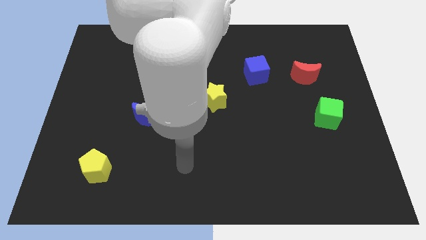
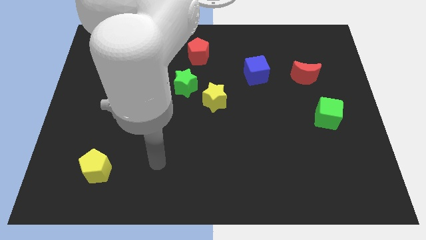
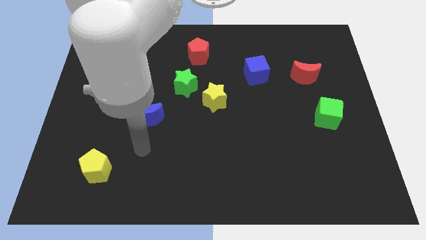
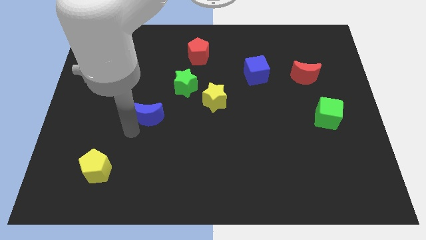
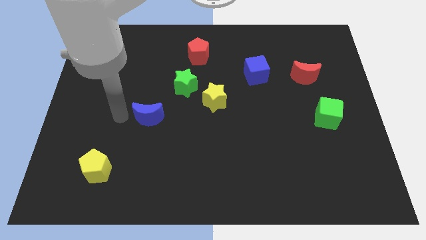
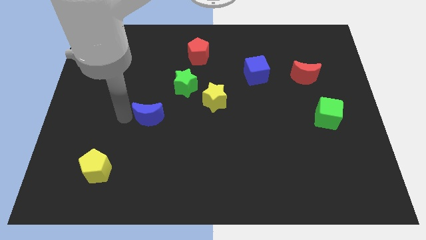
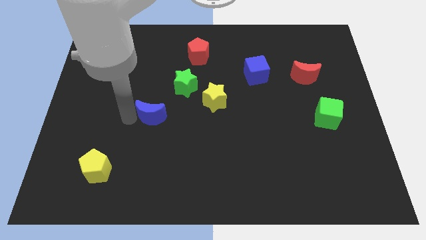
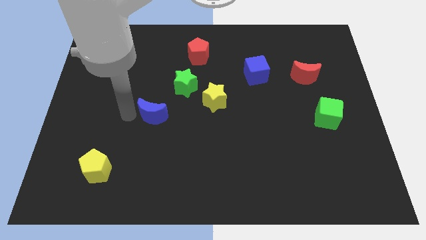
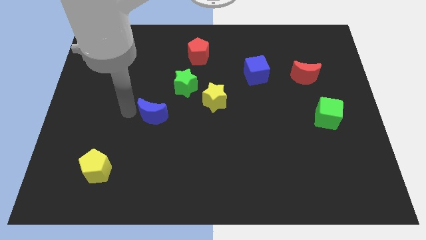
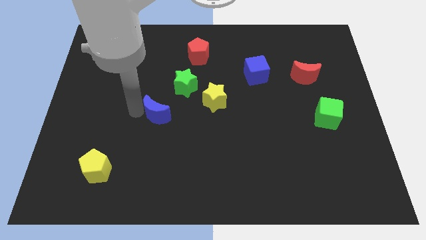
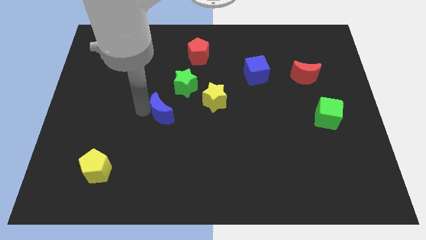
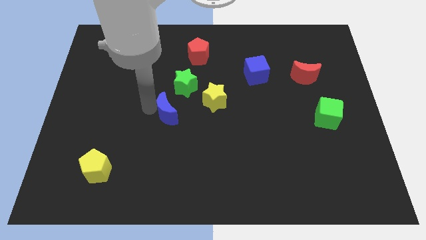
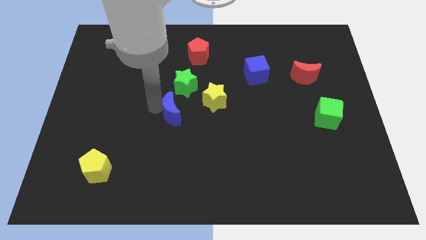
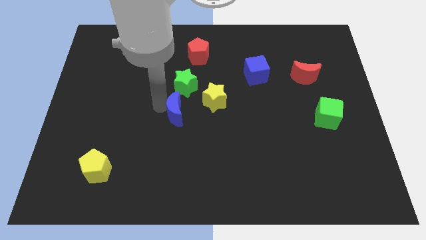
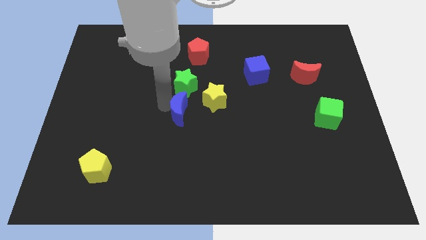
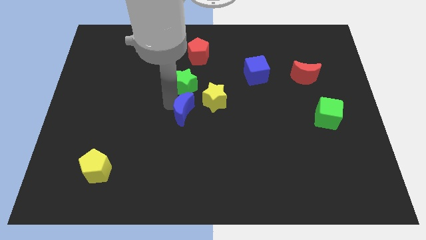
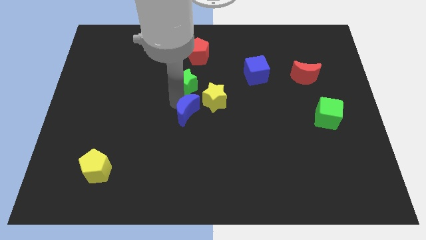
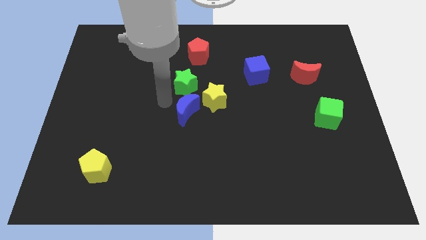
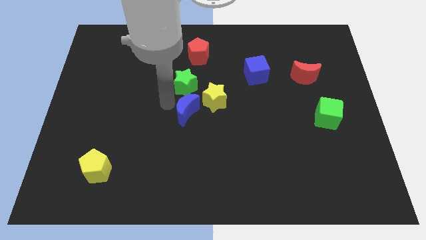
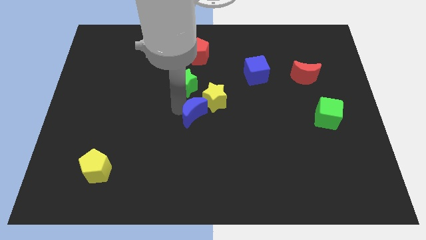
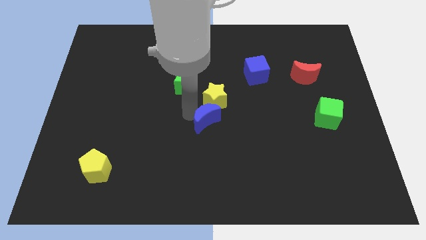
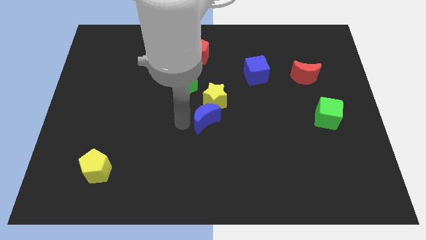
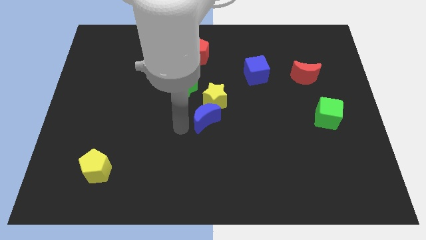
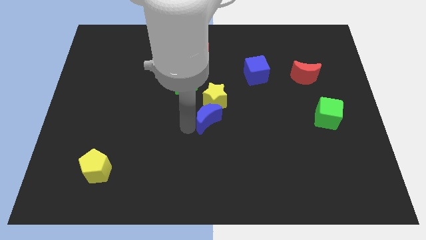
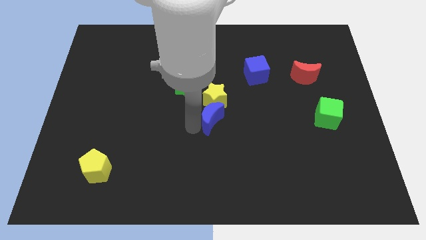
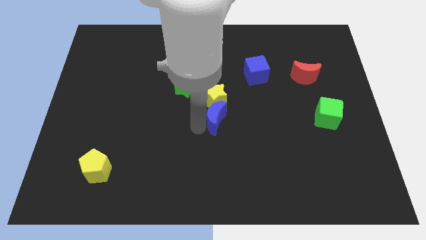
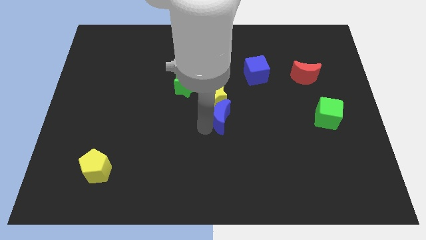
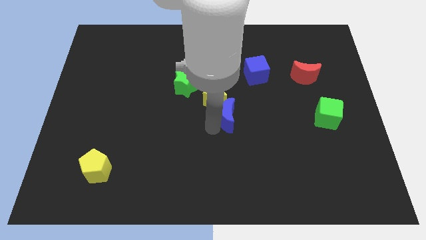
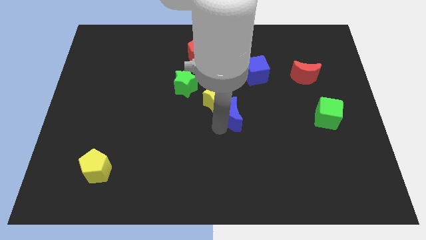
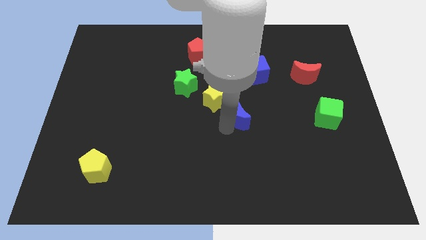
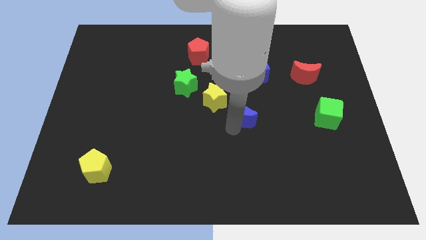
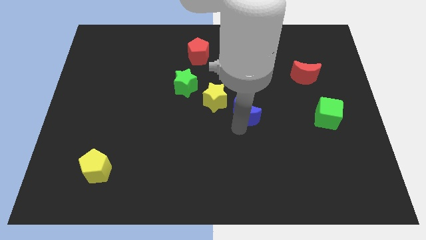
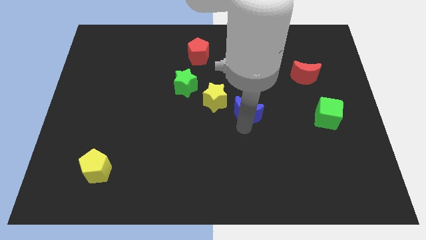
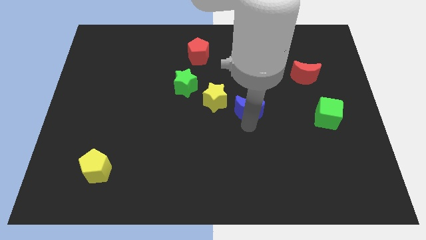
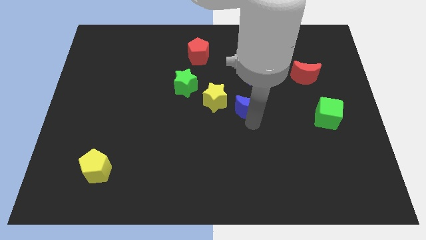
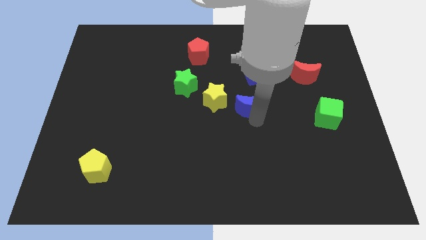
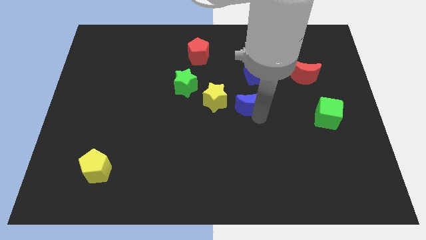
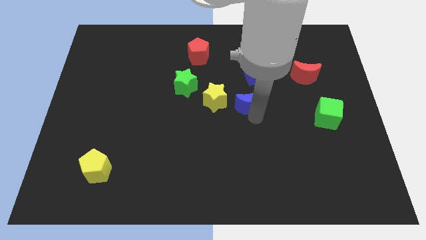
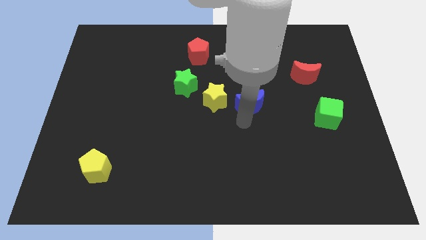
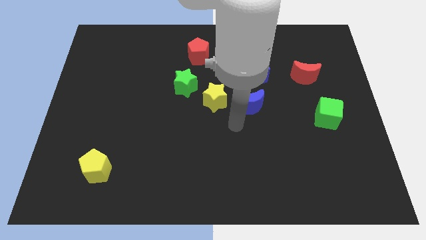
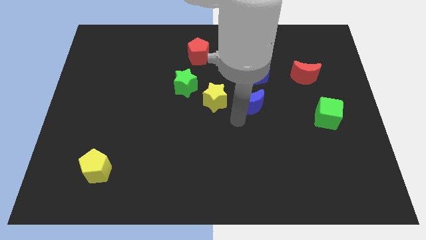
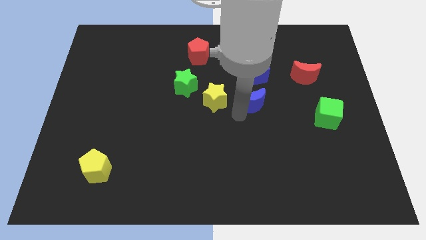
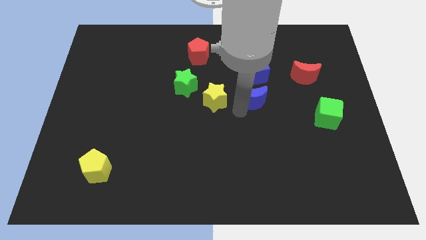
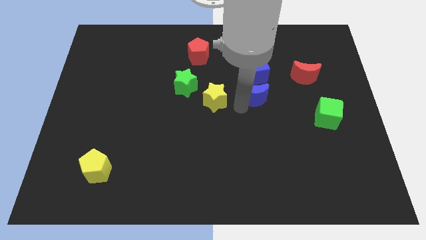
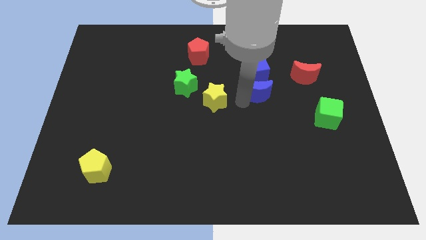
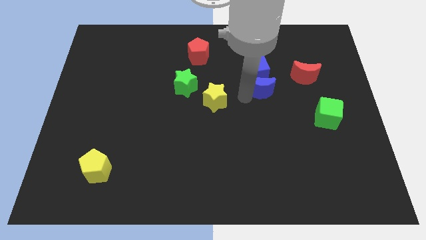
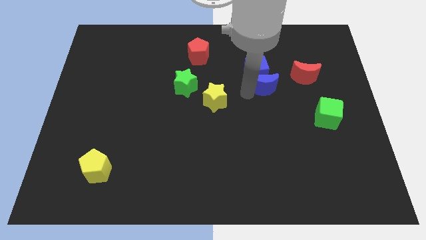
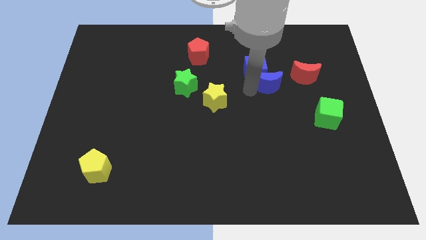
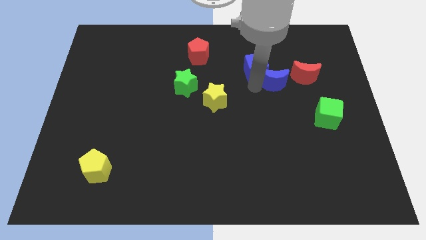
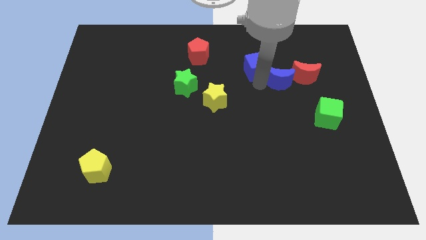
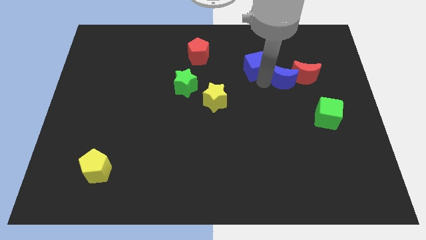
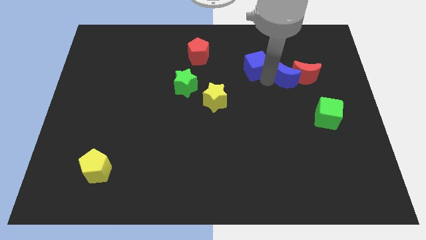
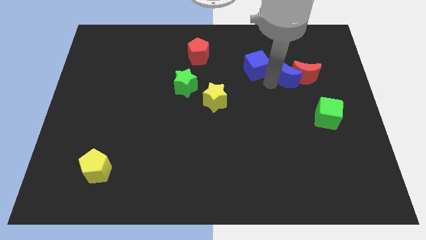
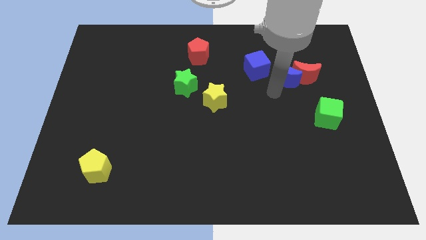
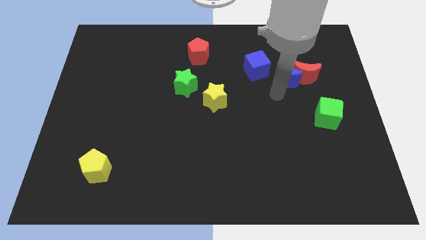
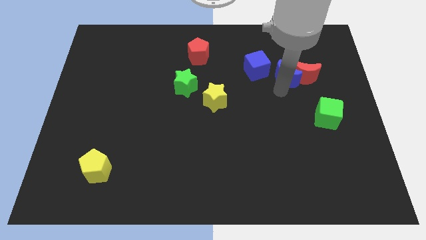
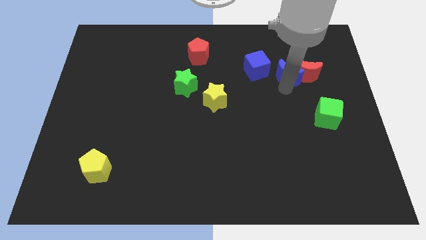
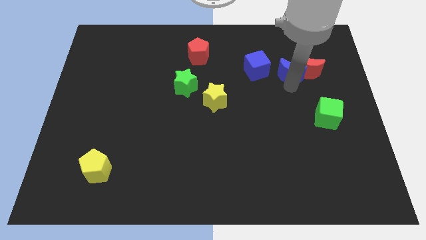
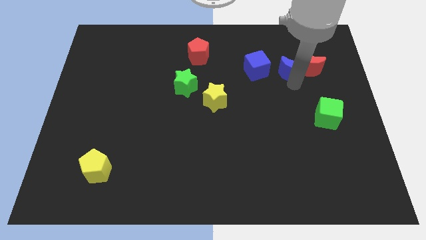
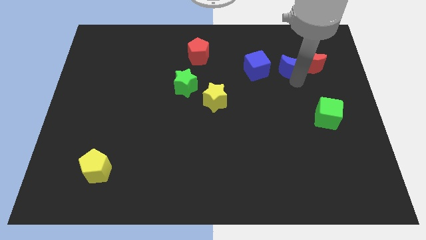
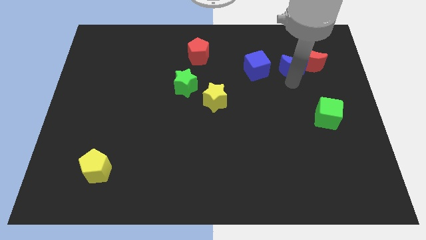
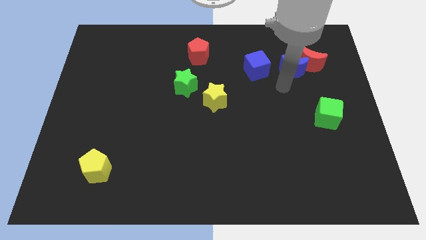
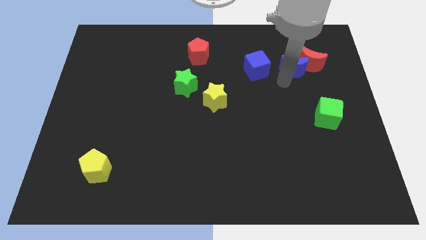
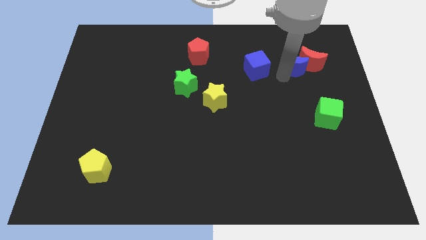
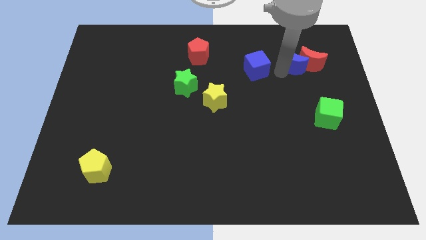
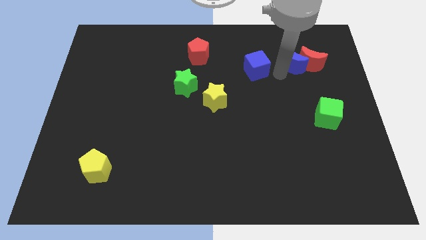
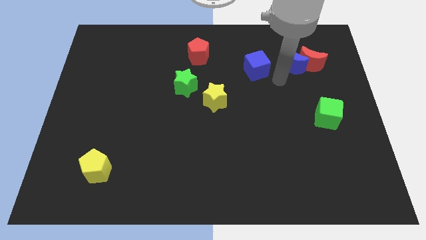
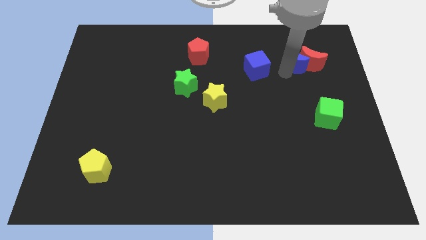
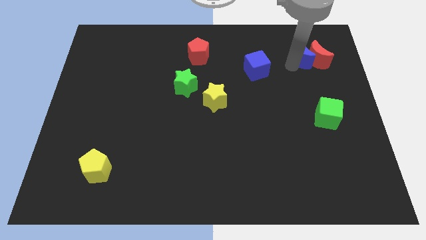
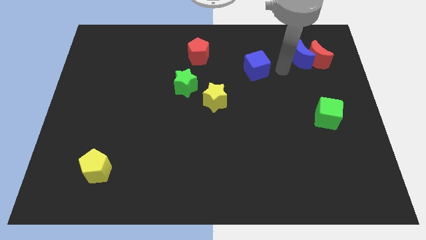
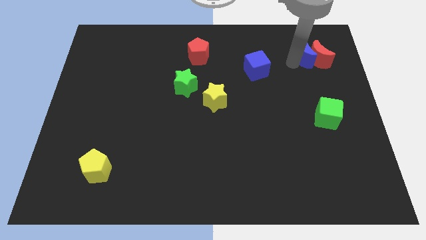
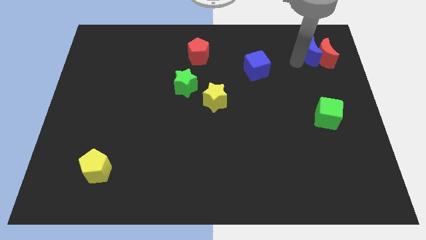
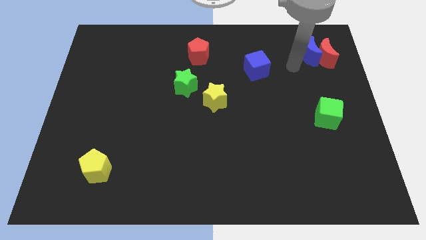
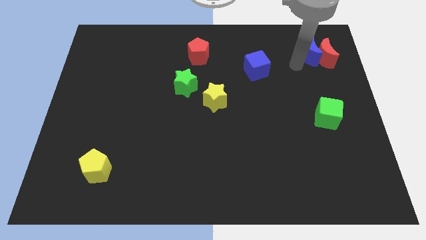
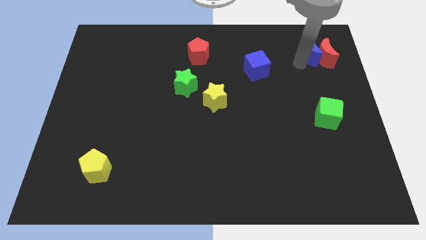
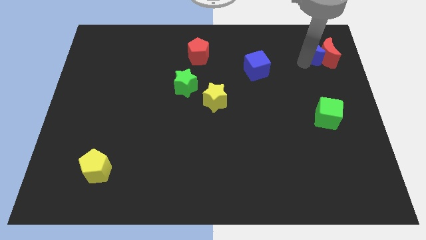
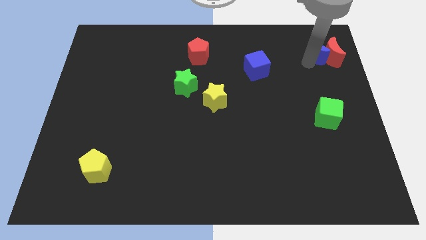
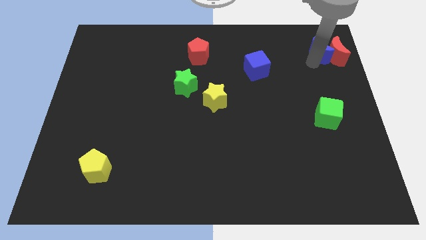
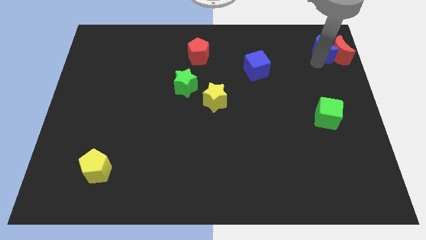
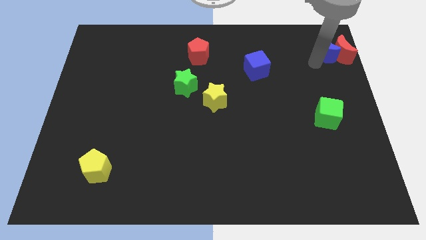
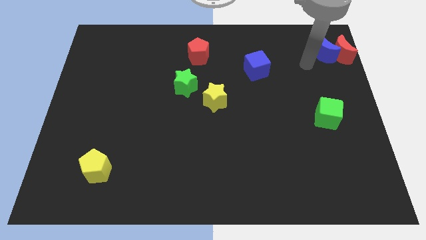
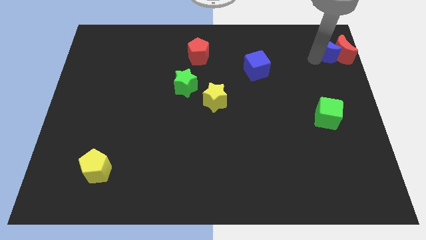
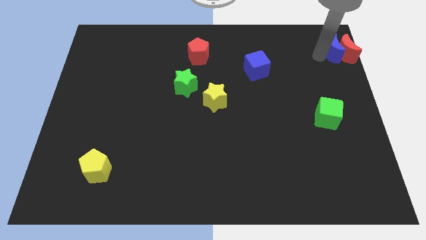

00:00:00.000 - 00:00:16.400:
move the blue moon to the top right of the board
